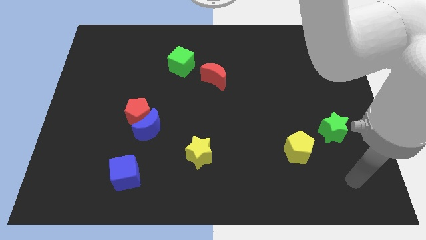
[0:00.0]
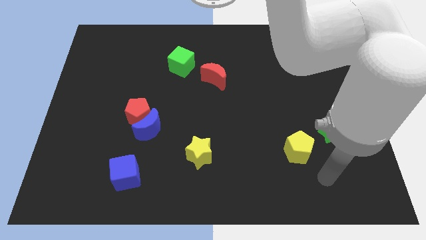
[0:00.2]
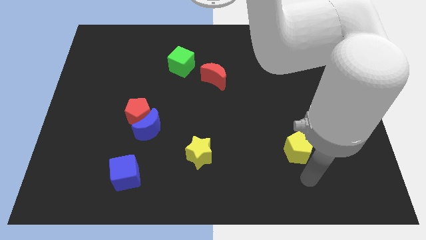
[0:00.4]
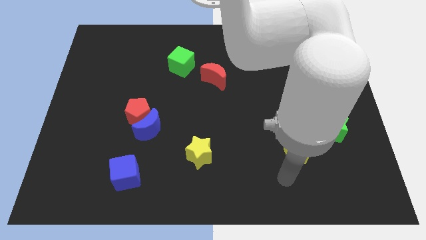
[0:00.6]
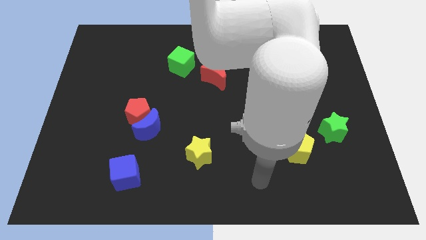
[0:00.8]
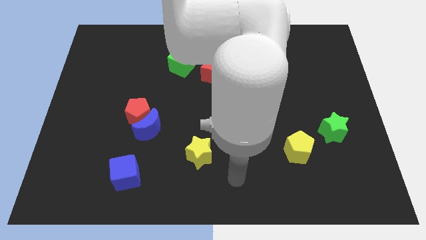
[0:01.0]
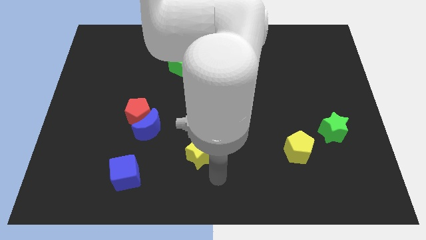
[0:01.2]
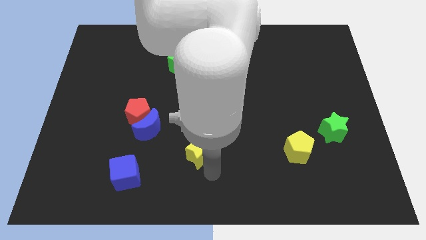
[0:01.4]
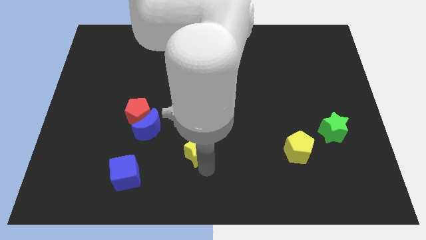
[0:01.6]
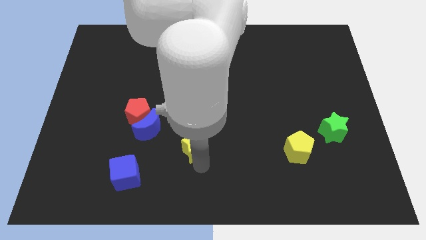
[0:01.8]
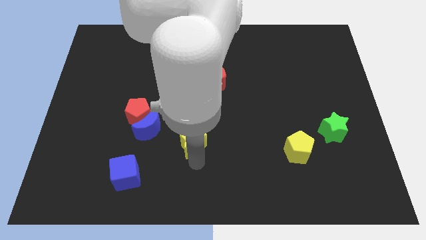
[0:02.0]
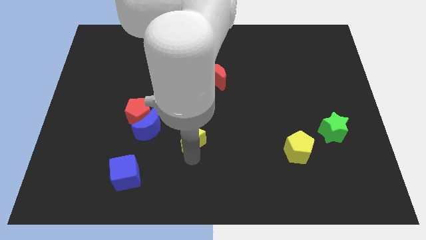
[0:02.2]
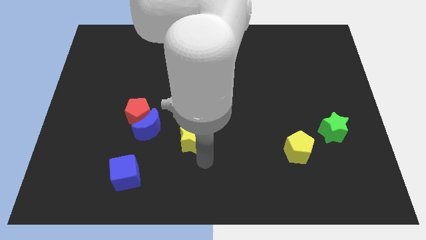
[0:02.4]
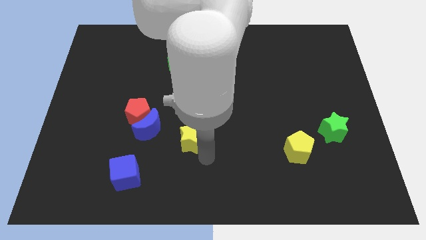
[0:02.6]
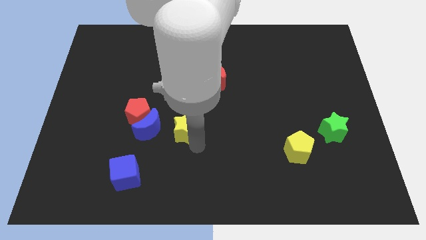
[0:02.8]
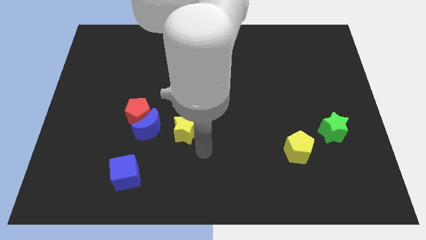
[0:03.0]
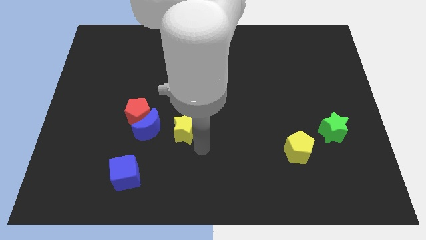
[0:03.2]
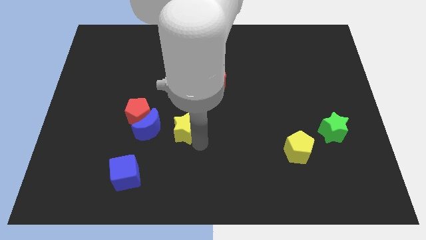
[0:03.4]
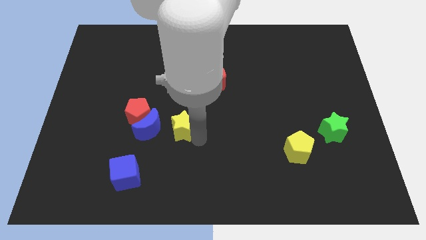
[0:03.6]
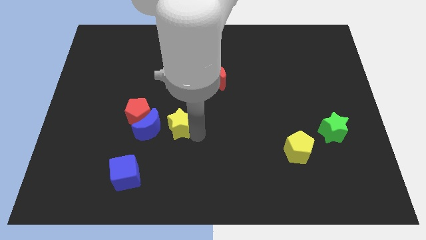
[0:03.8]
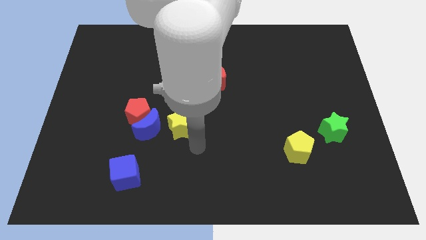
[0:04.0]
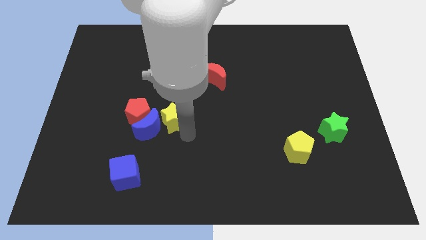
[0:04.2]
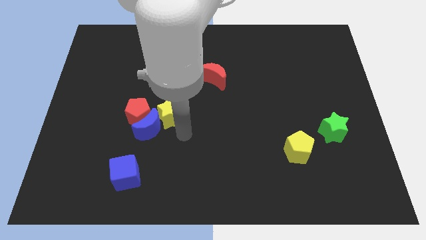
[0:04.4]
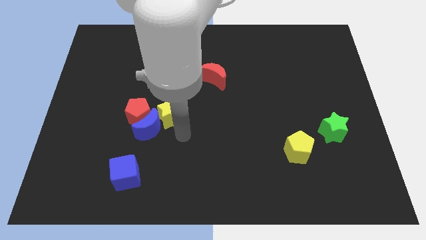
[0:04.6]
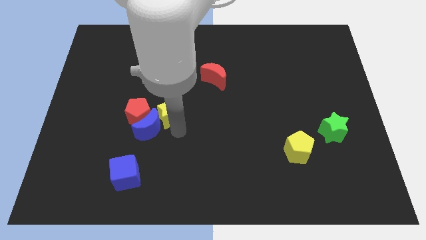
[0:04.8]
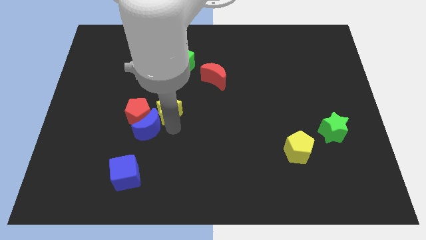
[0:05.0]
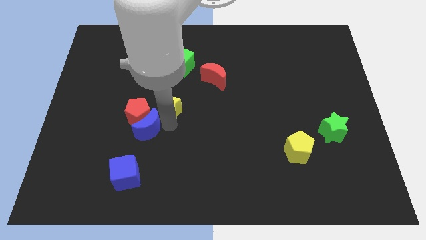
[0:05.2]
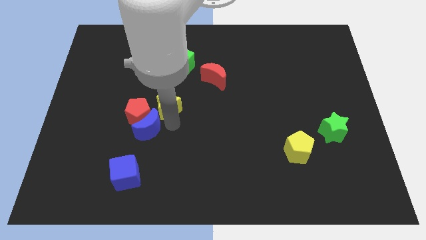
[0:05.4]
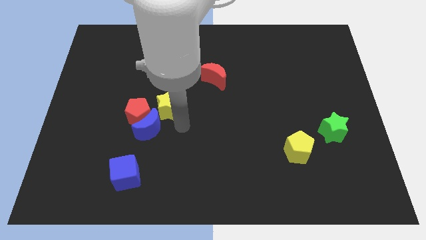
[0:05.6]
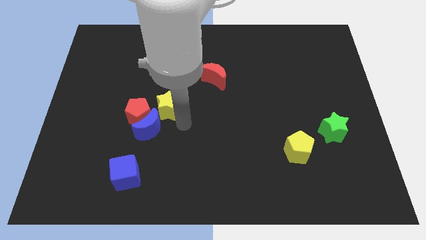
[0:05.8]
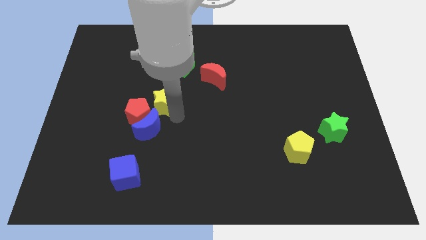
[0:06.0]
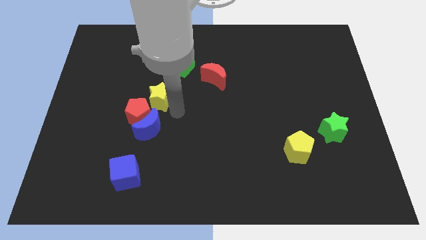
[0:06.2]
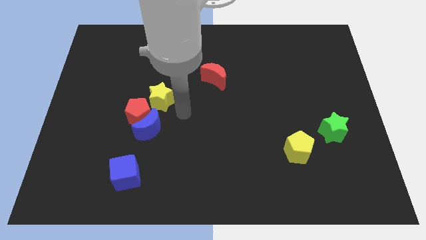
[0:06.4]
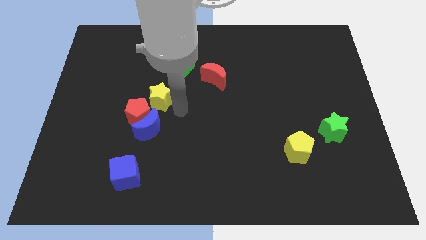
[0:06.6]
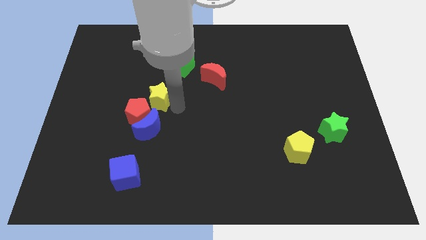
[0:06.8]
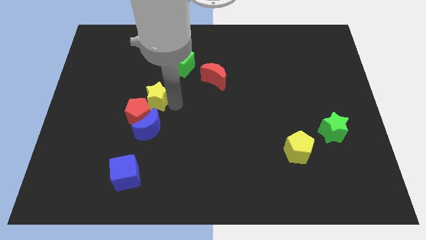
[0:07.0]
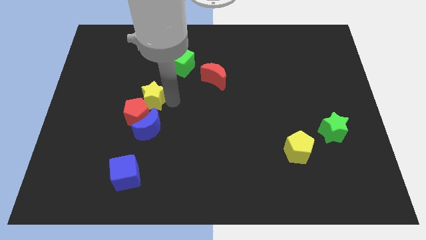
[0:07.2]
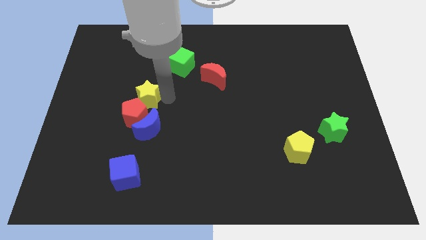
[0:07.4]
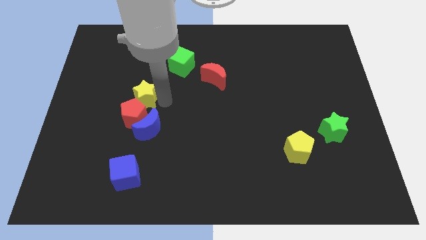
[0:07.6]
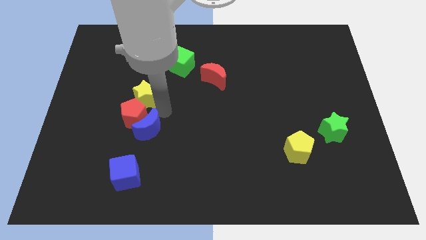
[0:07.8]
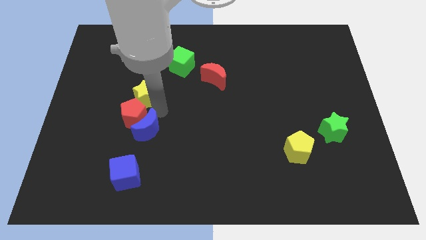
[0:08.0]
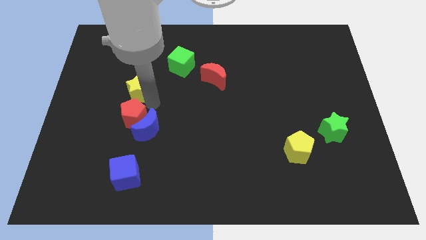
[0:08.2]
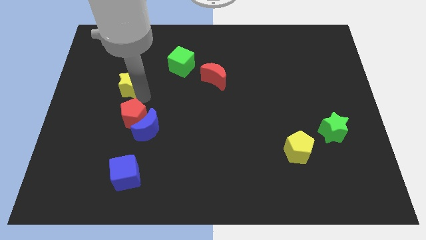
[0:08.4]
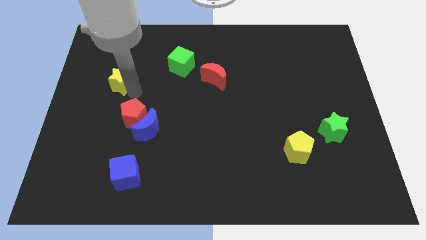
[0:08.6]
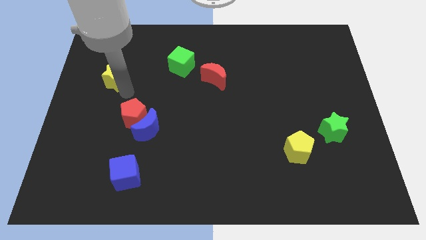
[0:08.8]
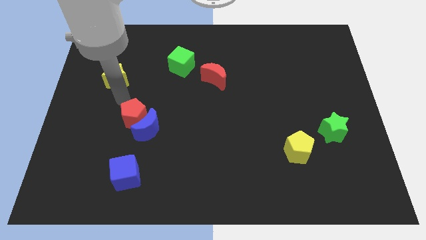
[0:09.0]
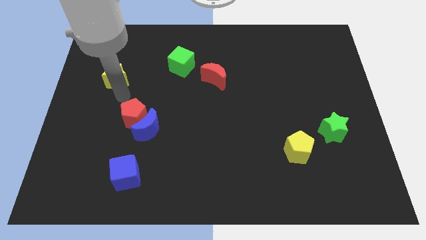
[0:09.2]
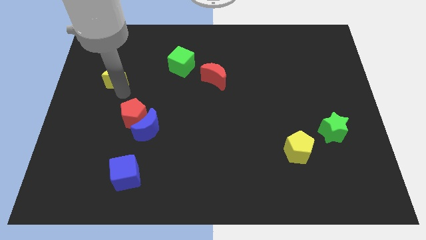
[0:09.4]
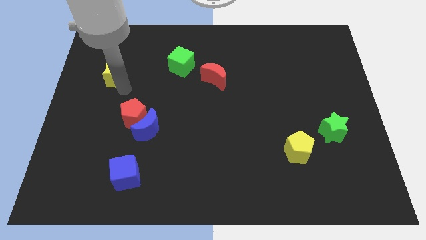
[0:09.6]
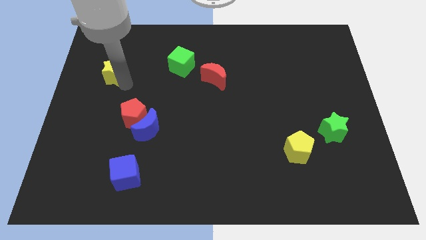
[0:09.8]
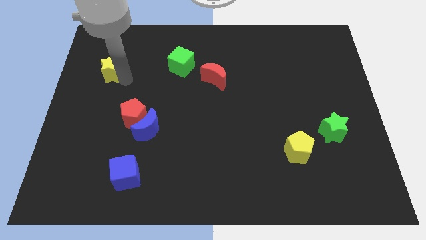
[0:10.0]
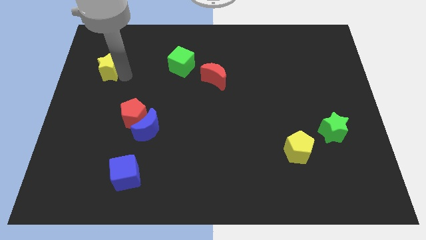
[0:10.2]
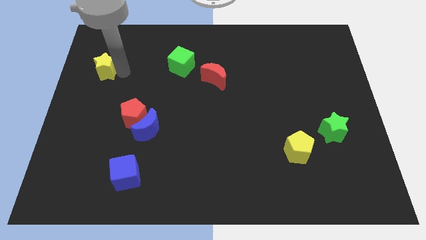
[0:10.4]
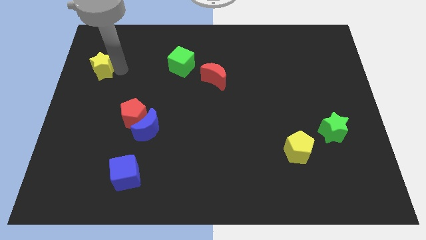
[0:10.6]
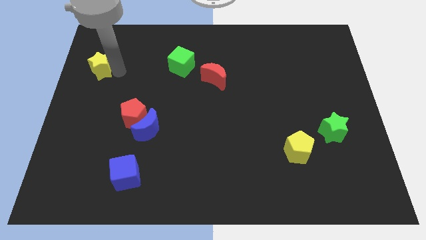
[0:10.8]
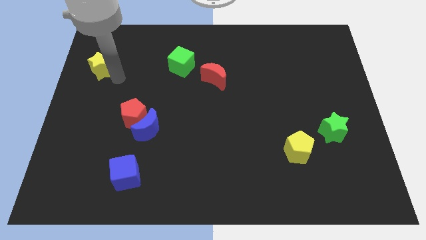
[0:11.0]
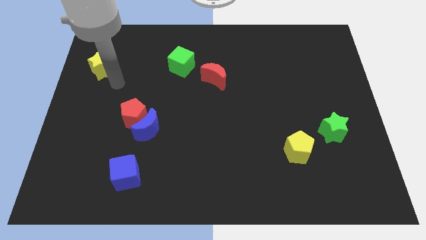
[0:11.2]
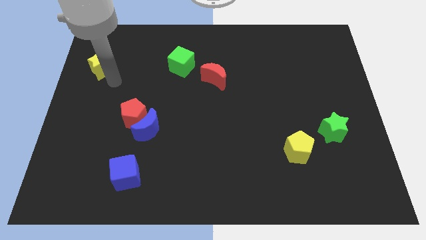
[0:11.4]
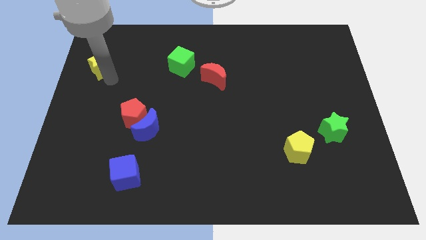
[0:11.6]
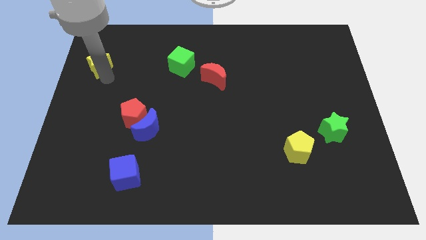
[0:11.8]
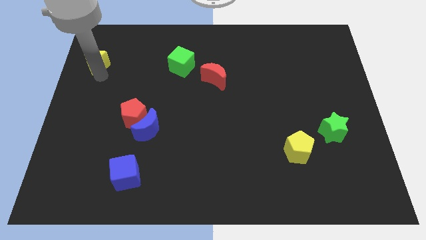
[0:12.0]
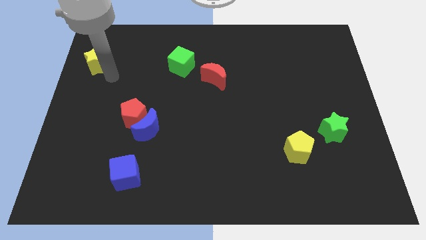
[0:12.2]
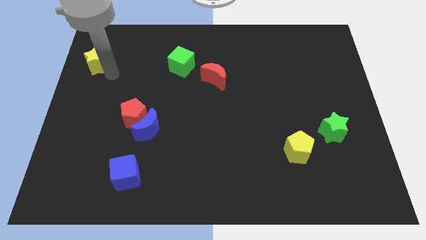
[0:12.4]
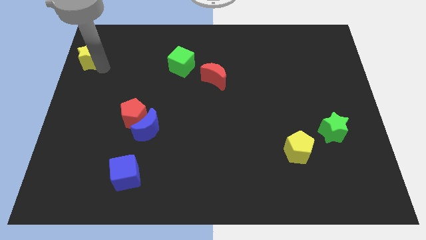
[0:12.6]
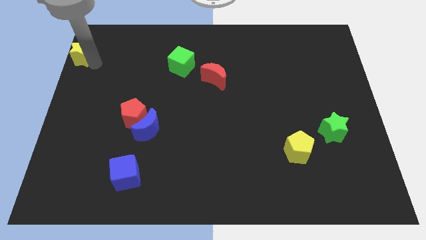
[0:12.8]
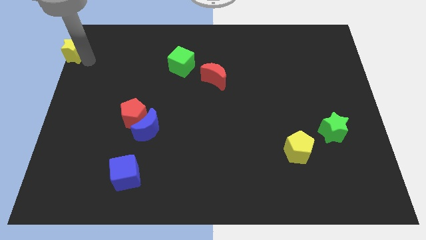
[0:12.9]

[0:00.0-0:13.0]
put the yellow star to the upper left corner
